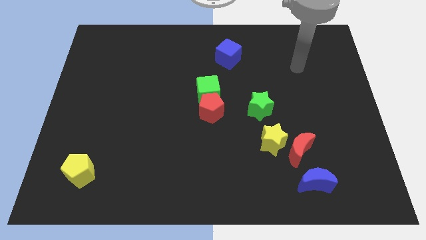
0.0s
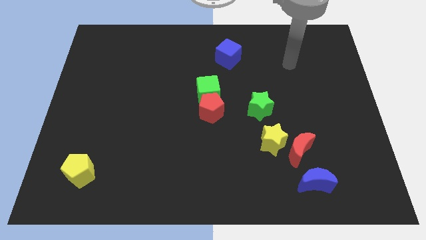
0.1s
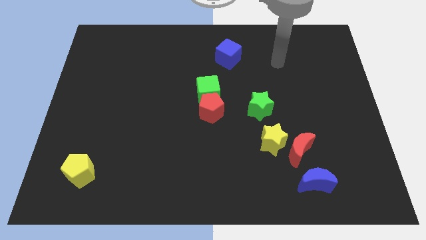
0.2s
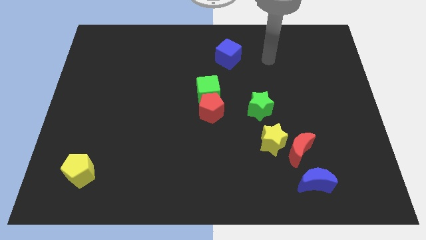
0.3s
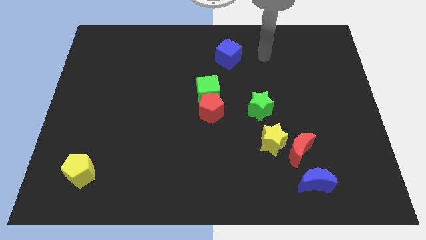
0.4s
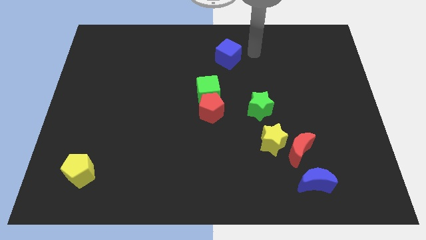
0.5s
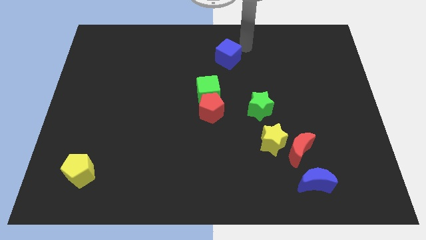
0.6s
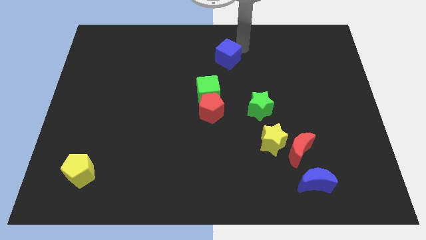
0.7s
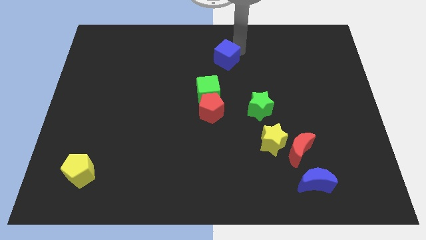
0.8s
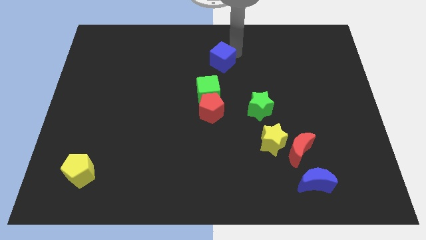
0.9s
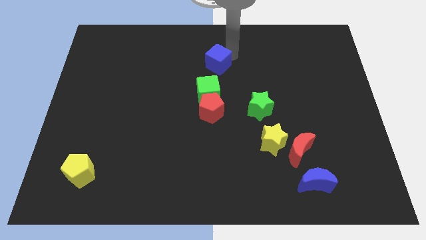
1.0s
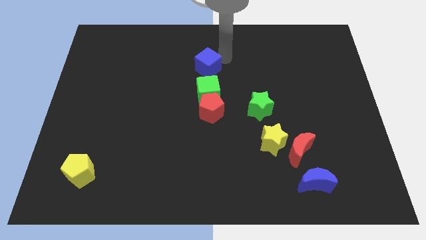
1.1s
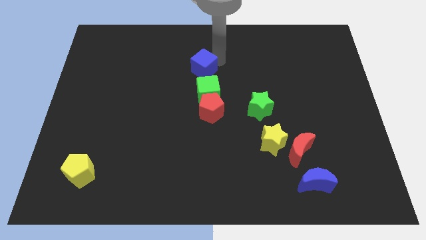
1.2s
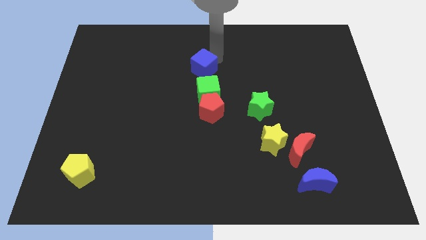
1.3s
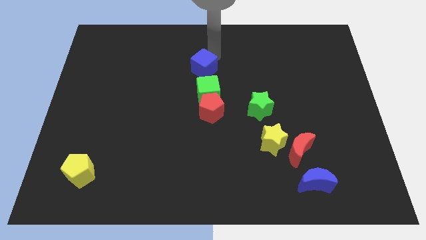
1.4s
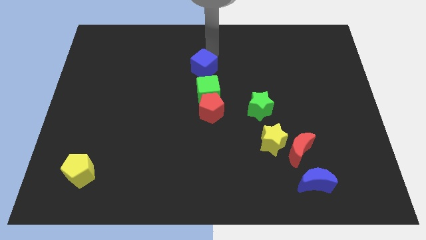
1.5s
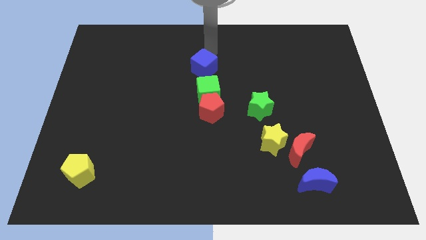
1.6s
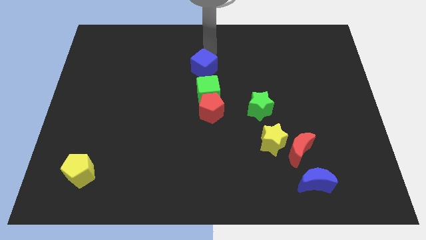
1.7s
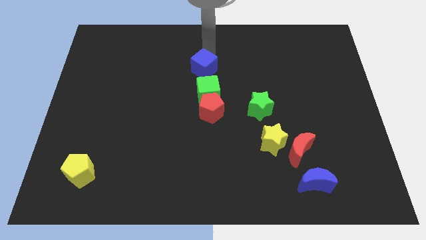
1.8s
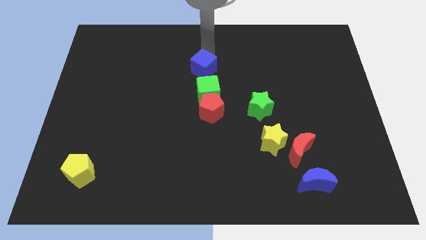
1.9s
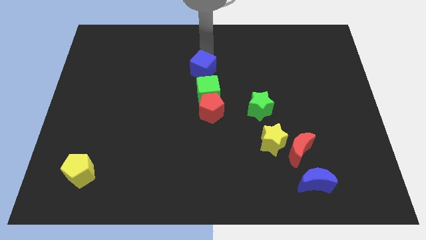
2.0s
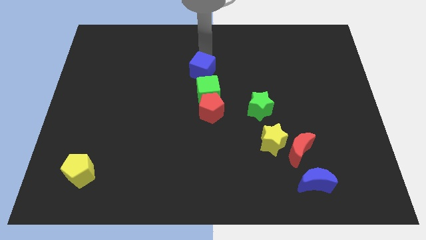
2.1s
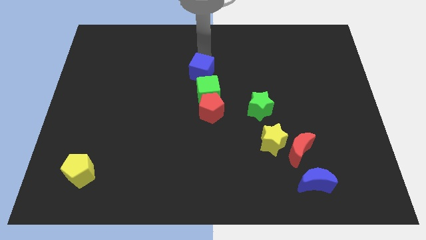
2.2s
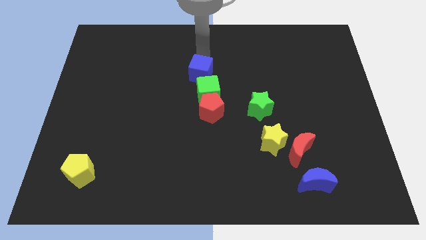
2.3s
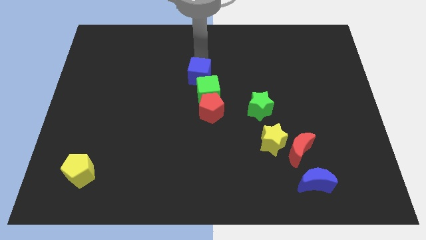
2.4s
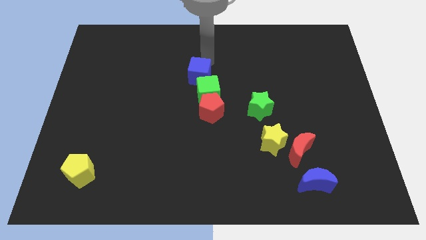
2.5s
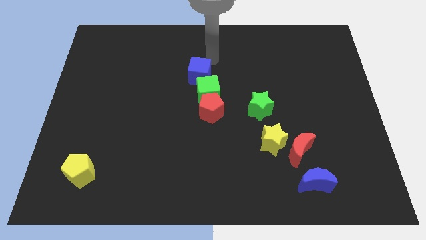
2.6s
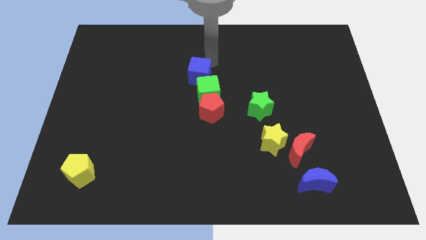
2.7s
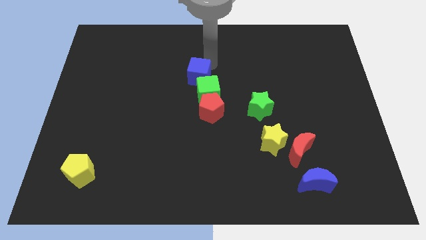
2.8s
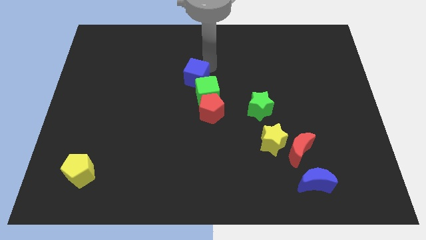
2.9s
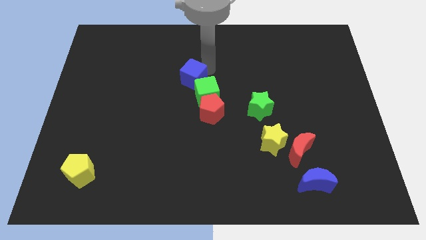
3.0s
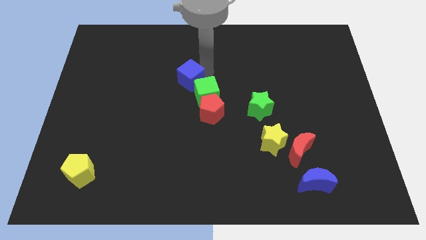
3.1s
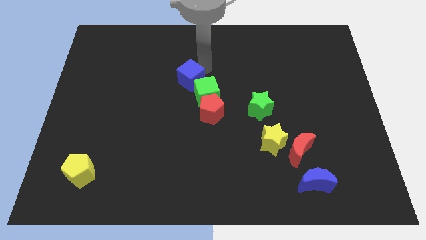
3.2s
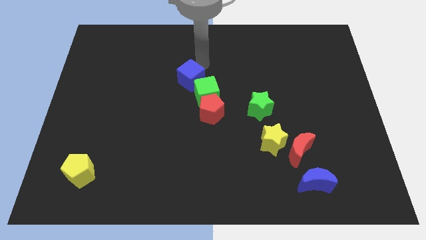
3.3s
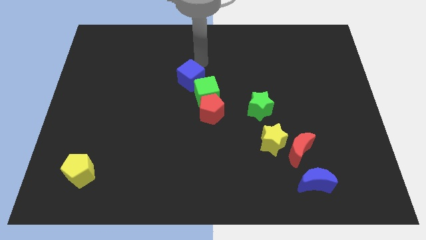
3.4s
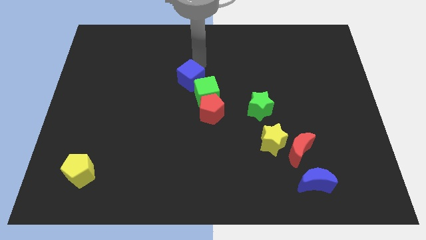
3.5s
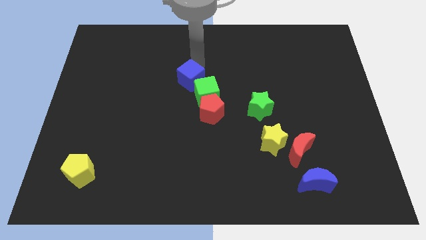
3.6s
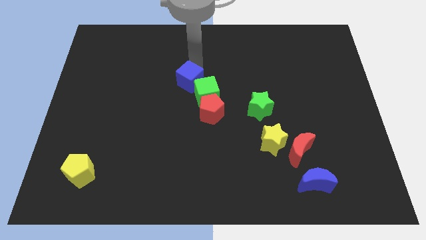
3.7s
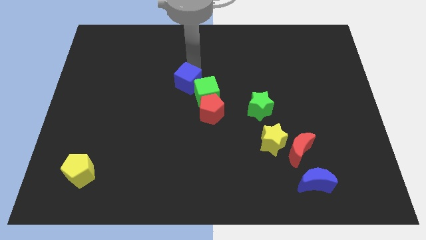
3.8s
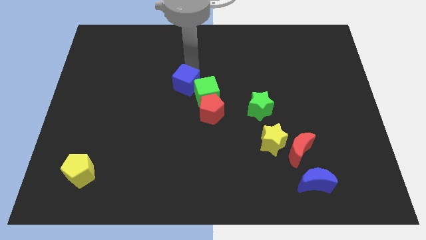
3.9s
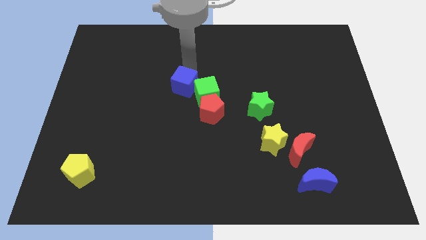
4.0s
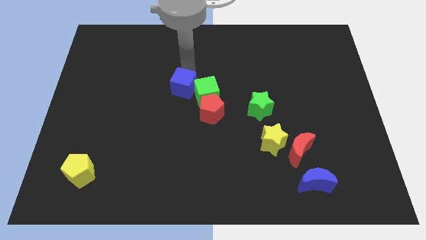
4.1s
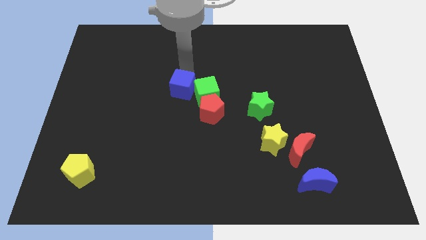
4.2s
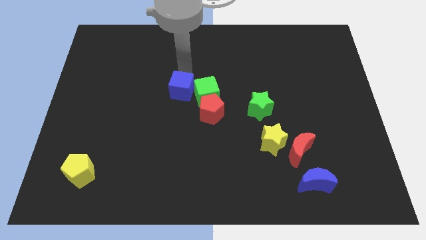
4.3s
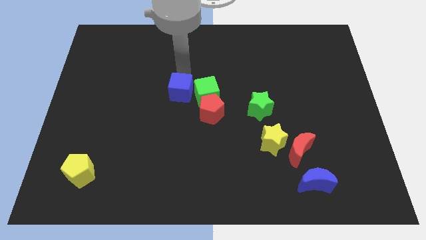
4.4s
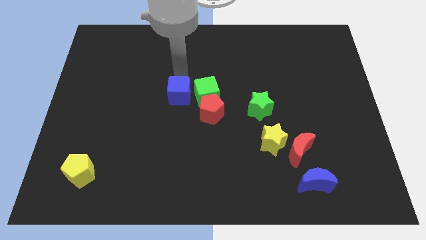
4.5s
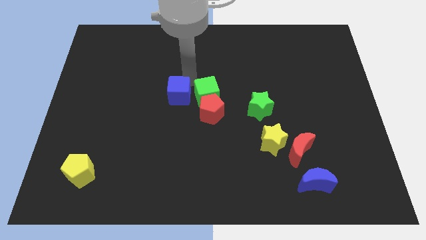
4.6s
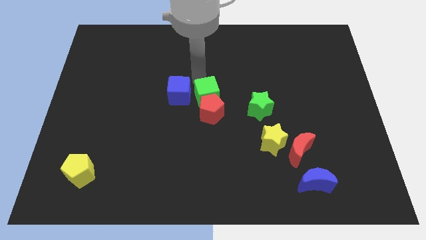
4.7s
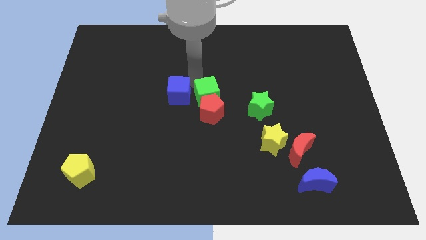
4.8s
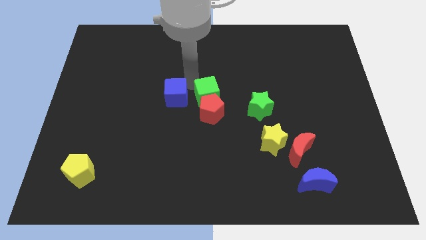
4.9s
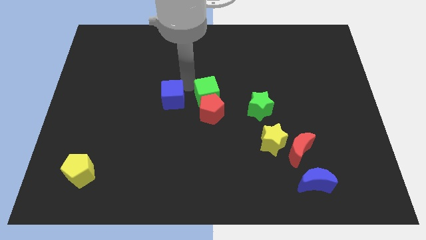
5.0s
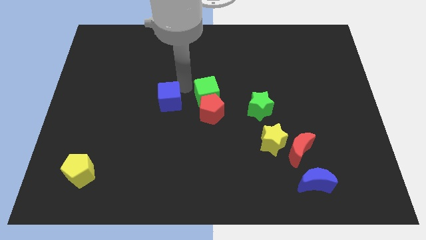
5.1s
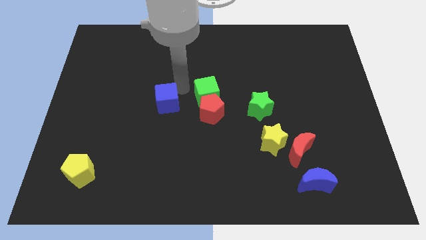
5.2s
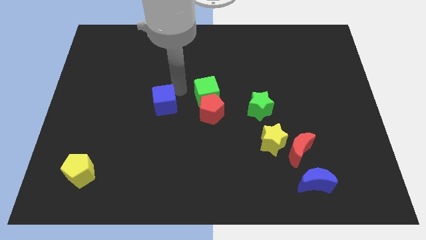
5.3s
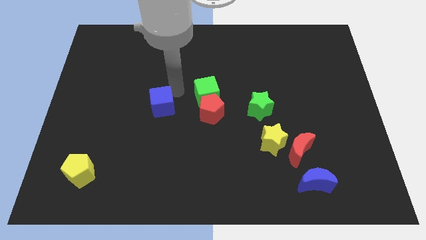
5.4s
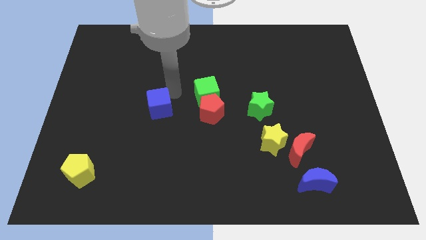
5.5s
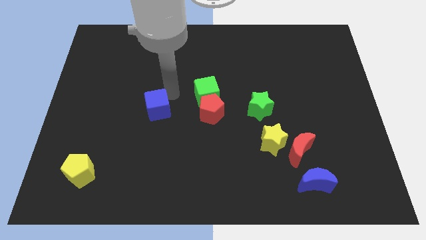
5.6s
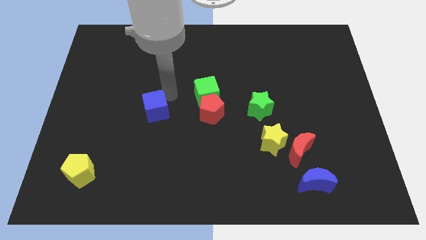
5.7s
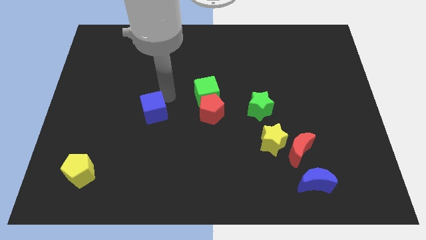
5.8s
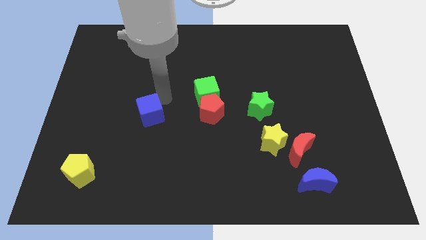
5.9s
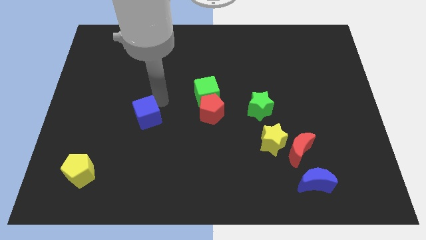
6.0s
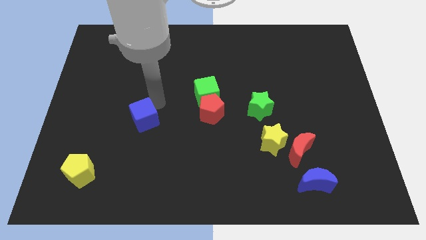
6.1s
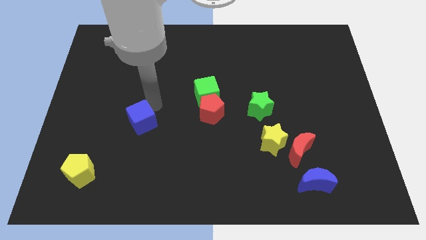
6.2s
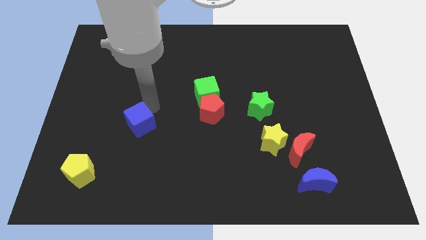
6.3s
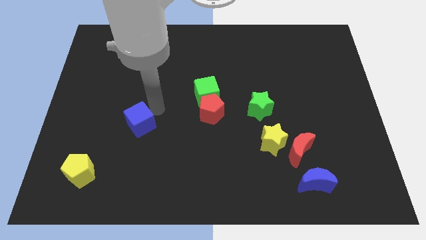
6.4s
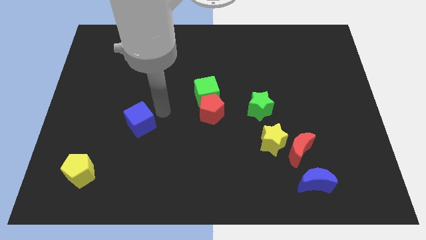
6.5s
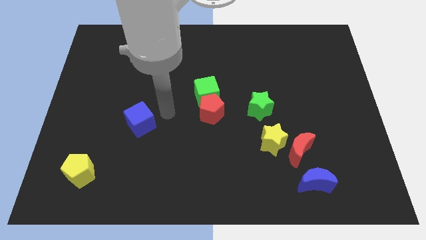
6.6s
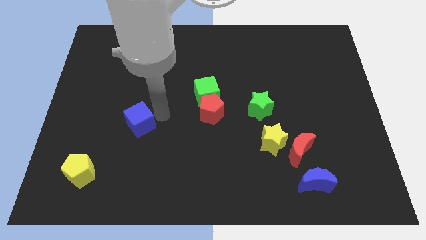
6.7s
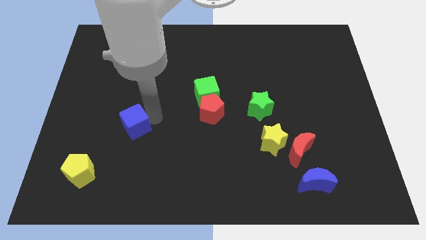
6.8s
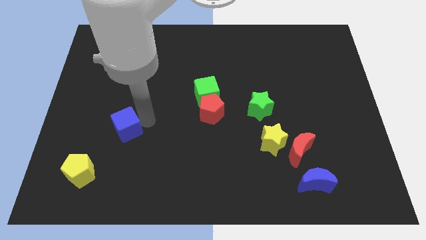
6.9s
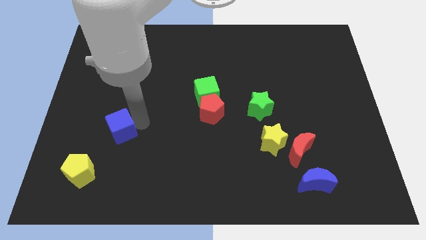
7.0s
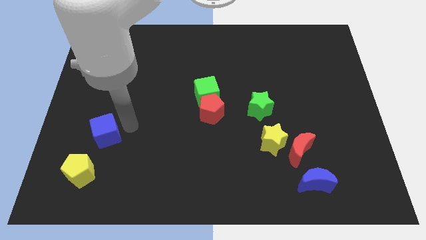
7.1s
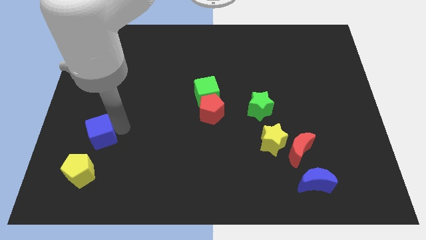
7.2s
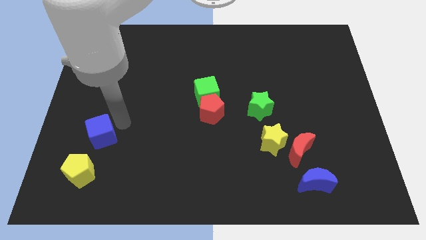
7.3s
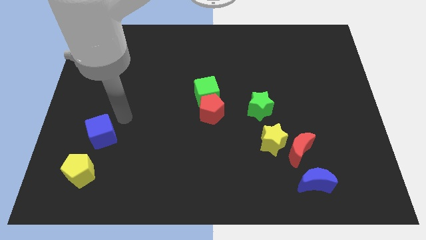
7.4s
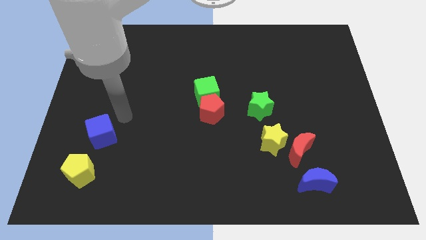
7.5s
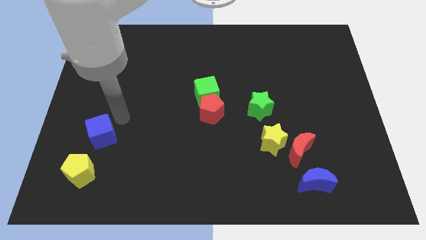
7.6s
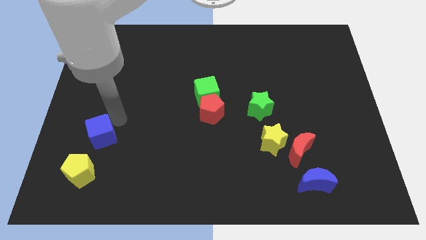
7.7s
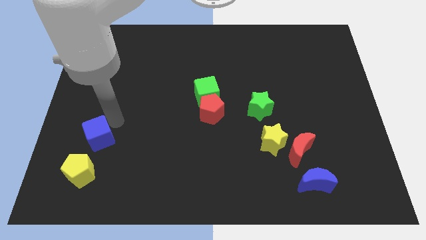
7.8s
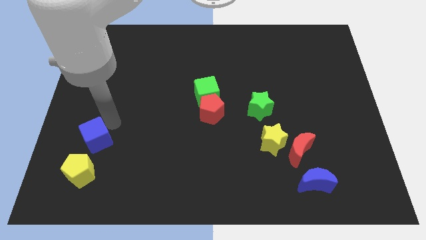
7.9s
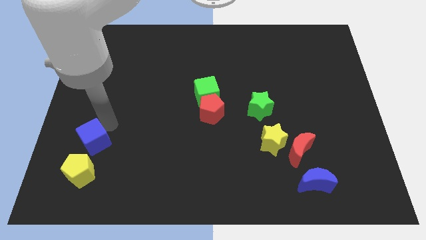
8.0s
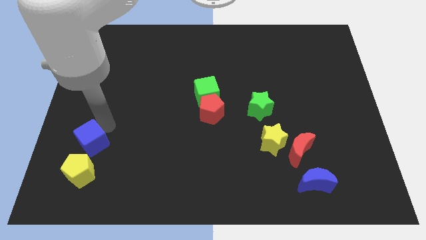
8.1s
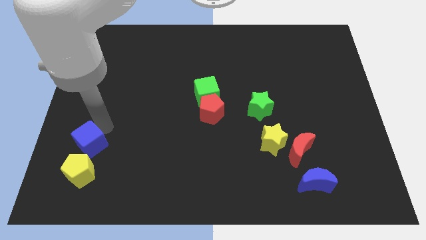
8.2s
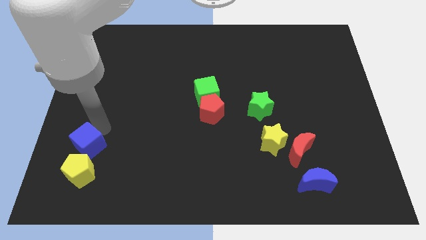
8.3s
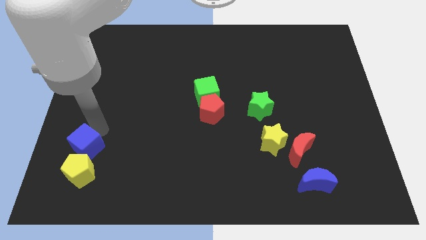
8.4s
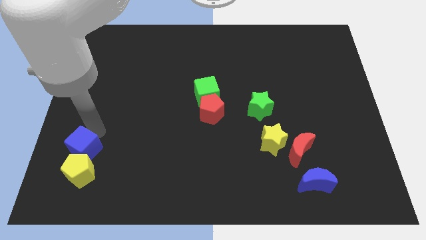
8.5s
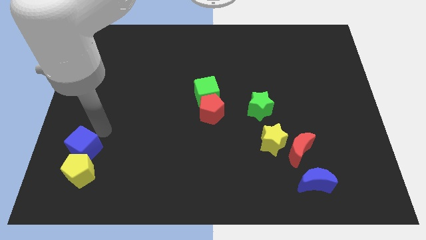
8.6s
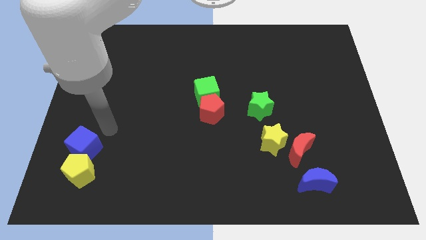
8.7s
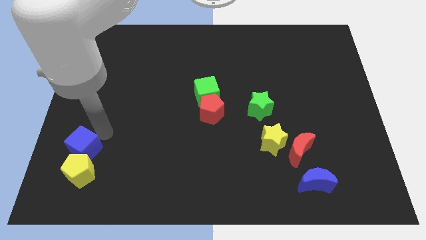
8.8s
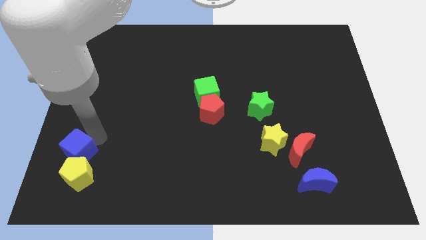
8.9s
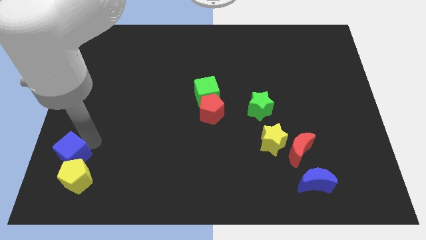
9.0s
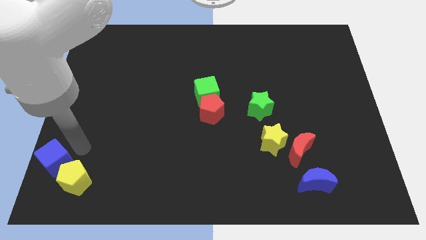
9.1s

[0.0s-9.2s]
push the blue cube to the lower left corner
